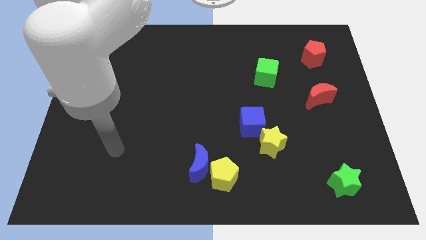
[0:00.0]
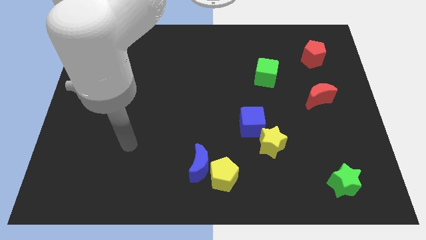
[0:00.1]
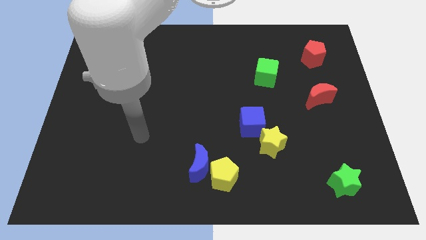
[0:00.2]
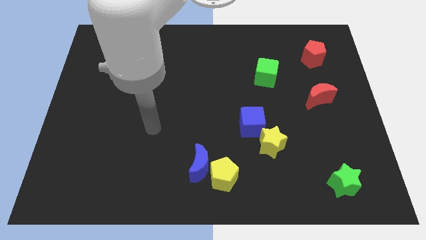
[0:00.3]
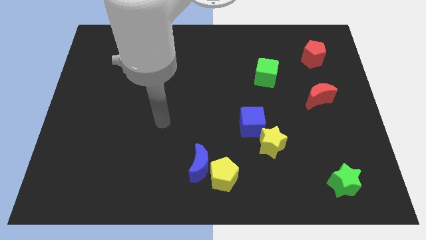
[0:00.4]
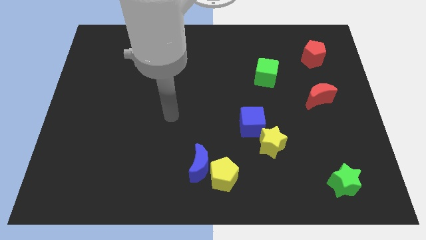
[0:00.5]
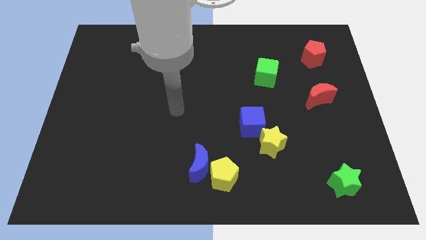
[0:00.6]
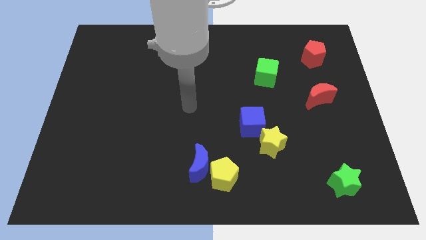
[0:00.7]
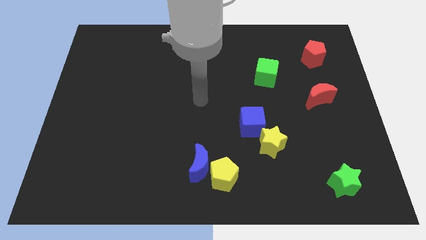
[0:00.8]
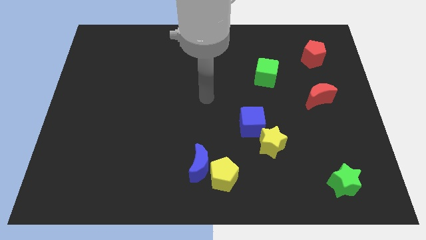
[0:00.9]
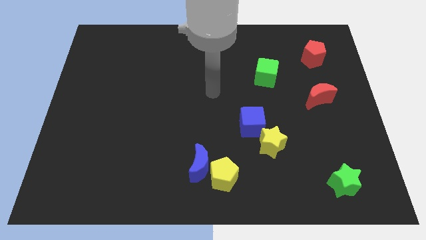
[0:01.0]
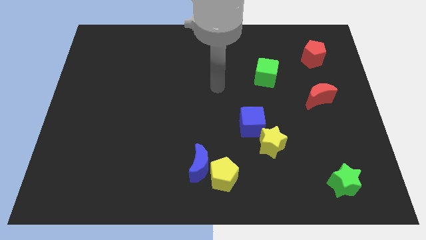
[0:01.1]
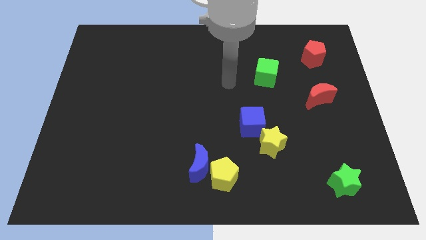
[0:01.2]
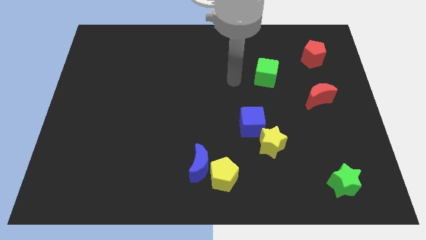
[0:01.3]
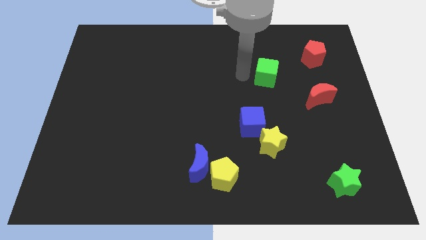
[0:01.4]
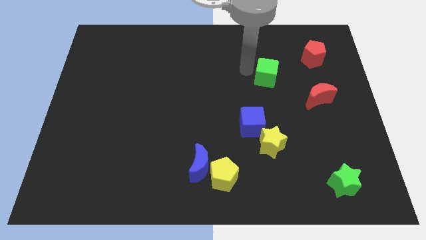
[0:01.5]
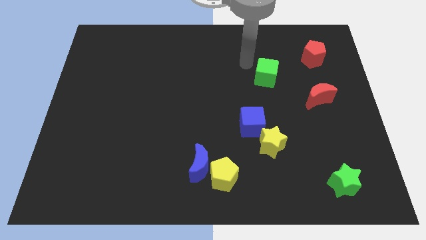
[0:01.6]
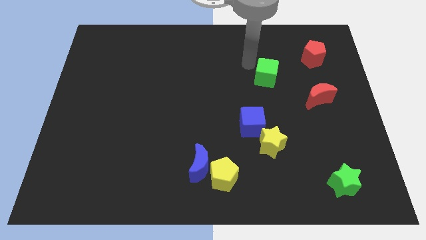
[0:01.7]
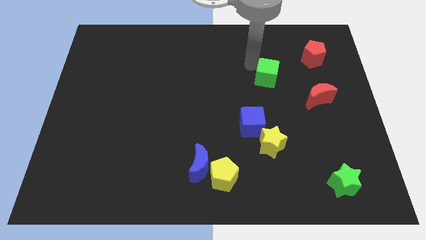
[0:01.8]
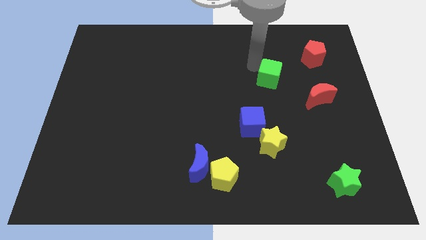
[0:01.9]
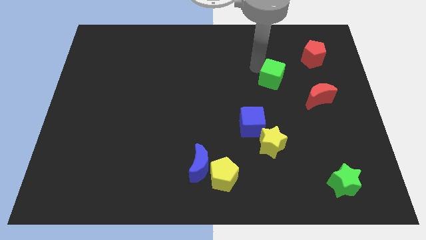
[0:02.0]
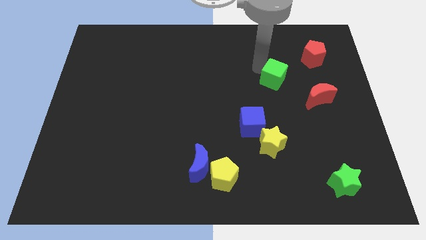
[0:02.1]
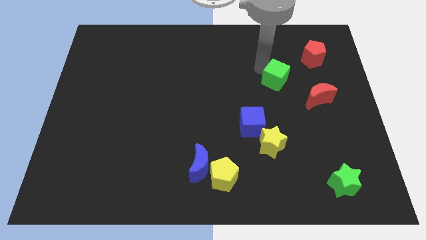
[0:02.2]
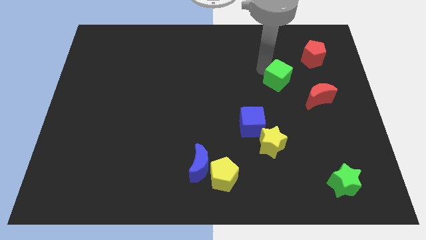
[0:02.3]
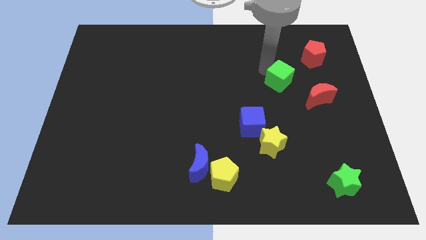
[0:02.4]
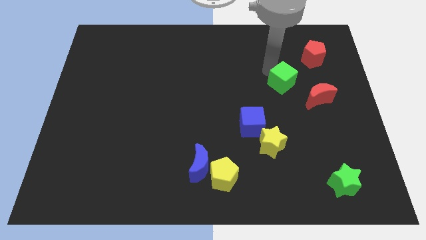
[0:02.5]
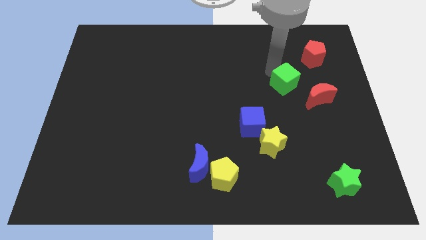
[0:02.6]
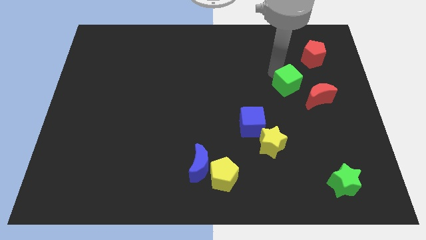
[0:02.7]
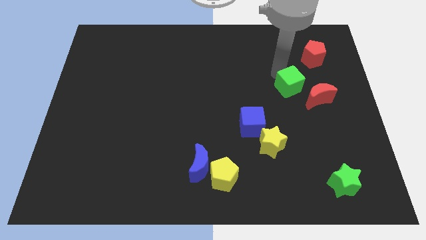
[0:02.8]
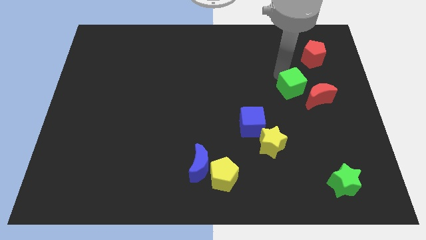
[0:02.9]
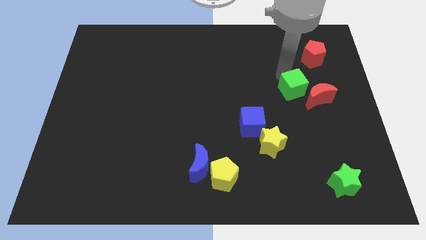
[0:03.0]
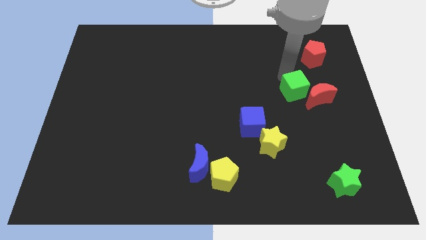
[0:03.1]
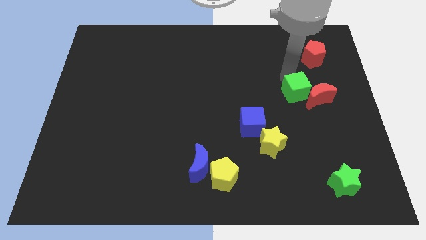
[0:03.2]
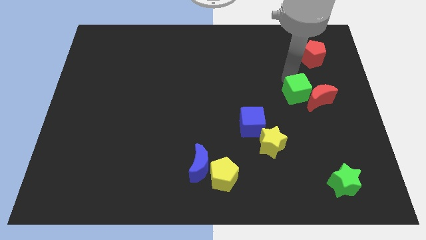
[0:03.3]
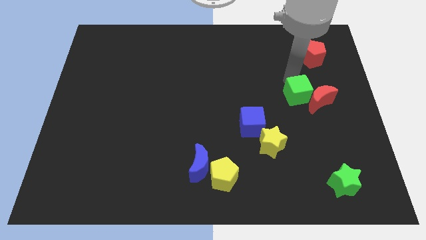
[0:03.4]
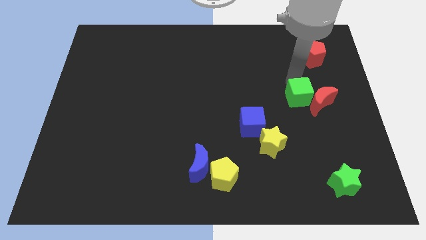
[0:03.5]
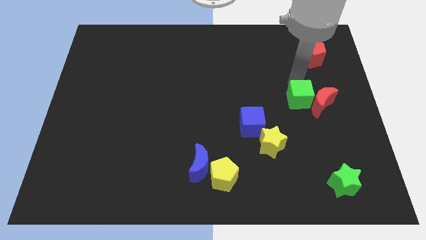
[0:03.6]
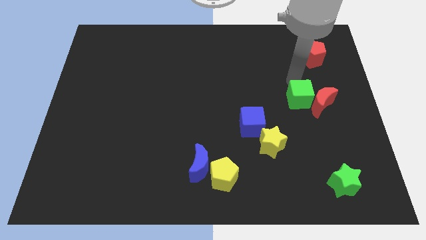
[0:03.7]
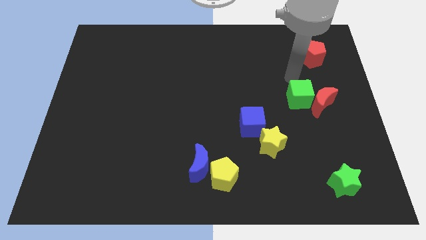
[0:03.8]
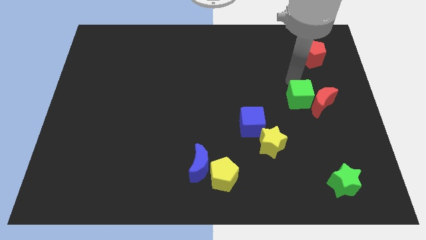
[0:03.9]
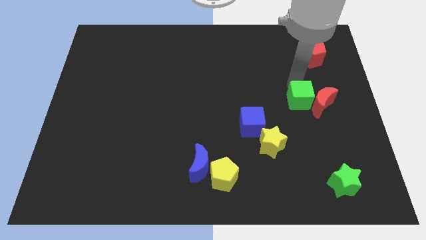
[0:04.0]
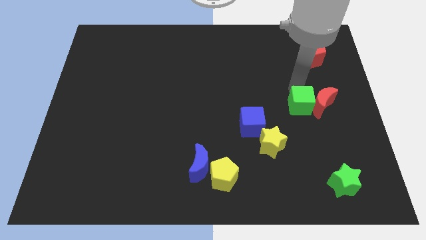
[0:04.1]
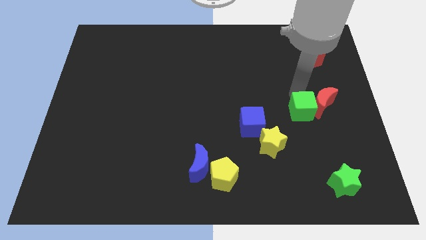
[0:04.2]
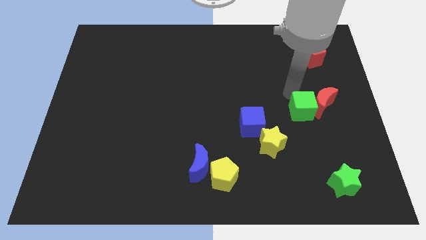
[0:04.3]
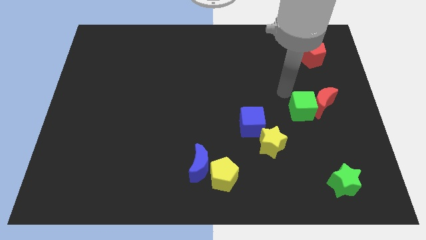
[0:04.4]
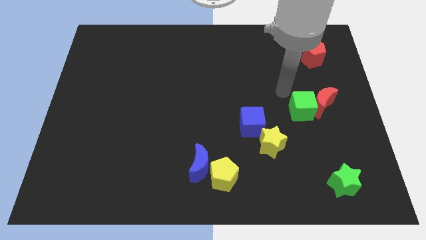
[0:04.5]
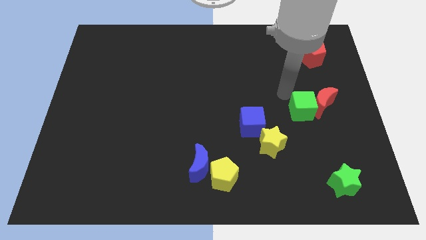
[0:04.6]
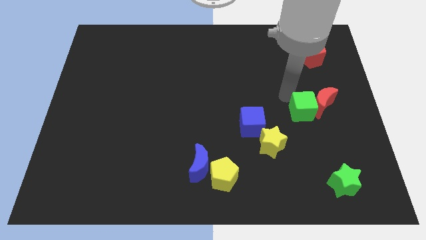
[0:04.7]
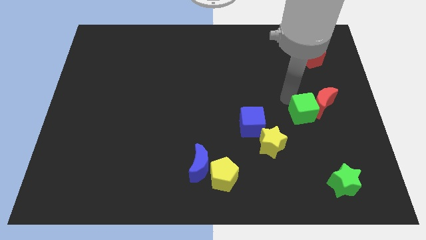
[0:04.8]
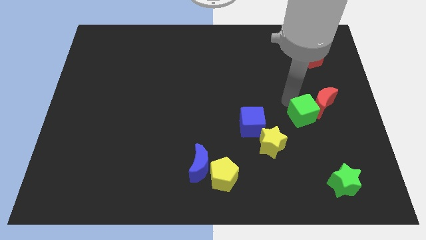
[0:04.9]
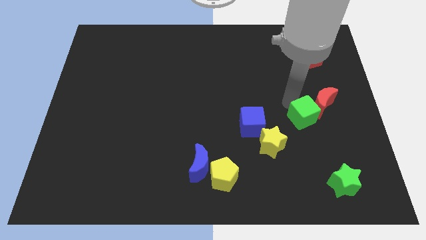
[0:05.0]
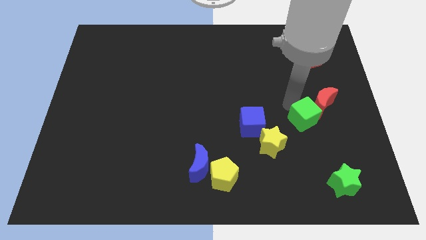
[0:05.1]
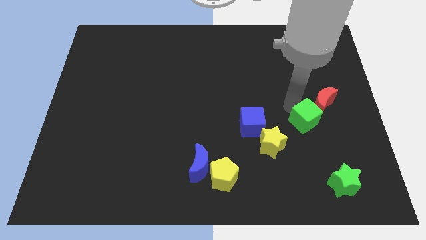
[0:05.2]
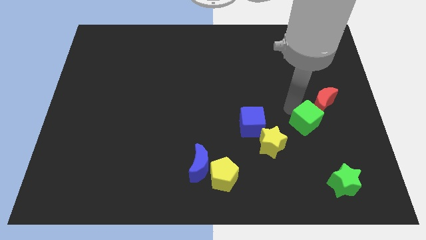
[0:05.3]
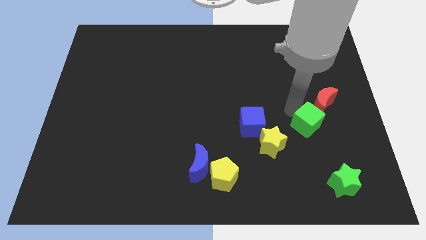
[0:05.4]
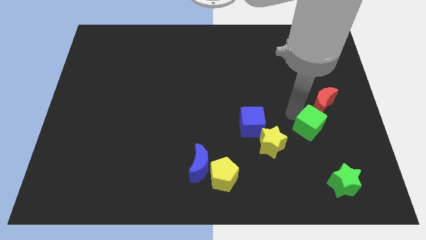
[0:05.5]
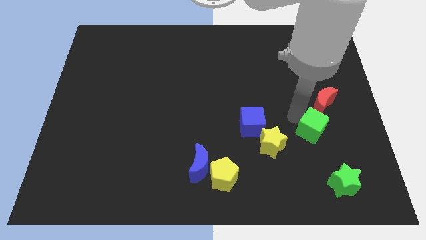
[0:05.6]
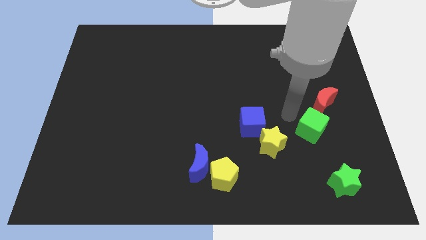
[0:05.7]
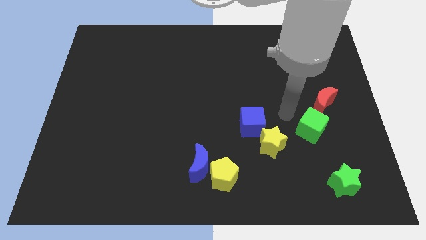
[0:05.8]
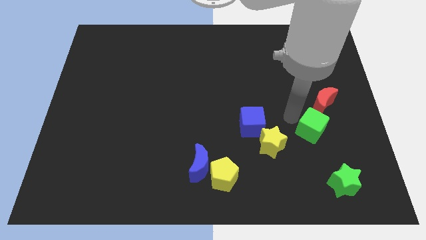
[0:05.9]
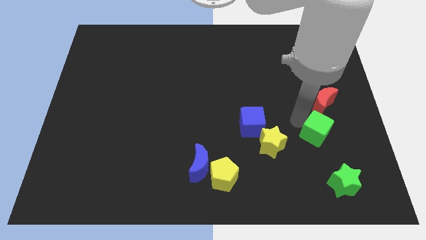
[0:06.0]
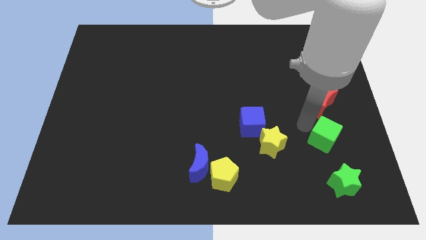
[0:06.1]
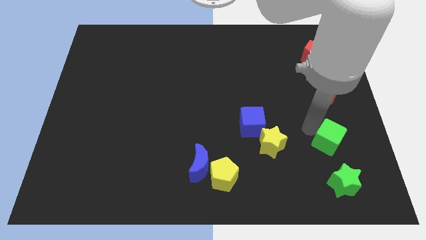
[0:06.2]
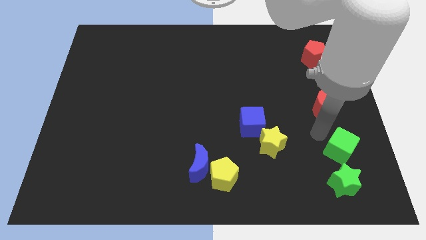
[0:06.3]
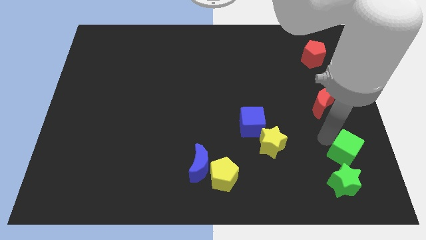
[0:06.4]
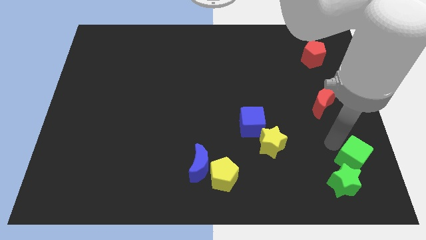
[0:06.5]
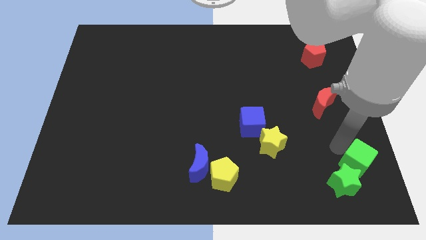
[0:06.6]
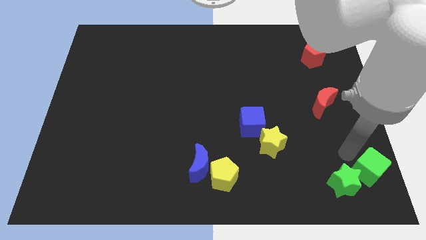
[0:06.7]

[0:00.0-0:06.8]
slide the green cube to the lower right corner

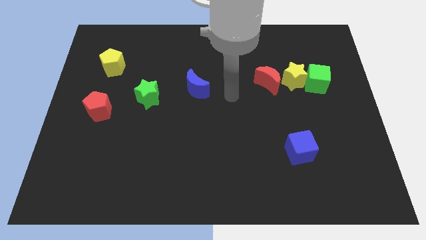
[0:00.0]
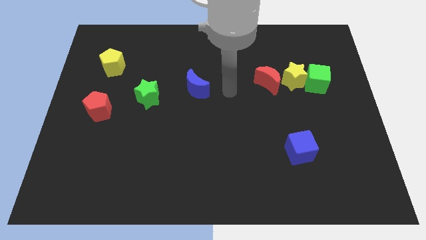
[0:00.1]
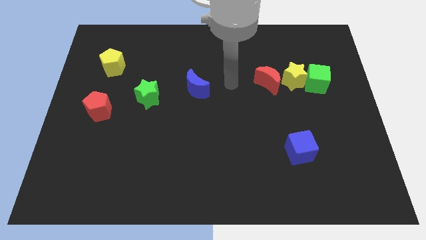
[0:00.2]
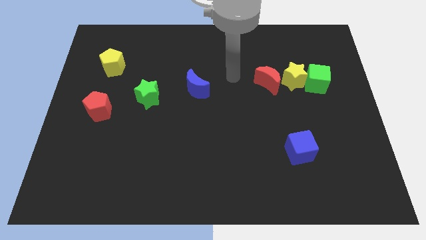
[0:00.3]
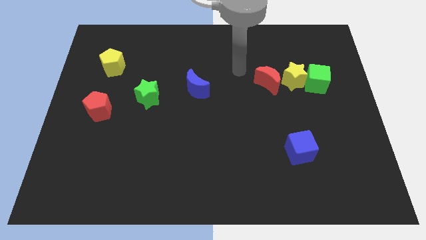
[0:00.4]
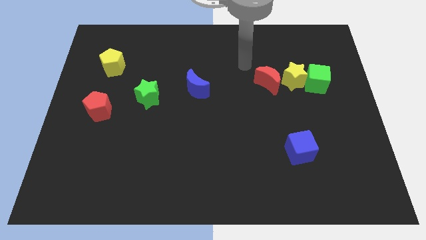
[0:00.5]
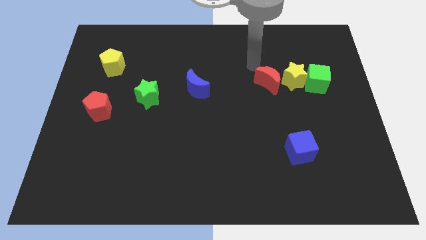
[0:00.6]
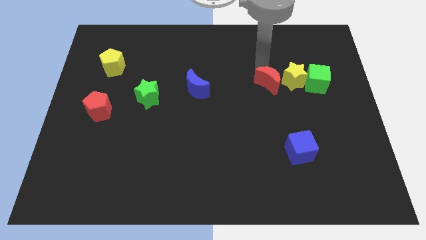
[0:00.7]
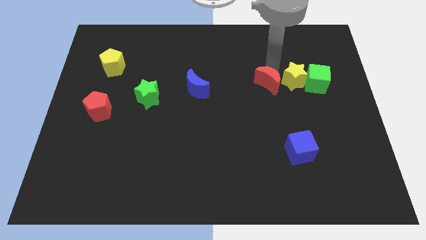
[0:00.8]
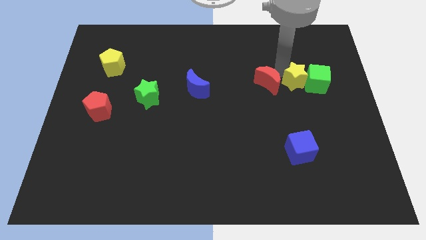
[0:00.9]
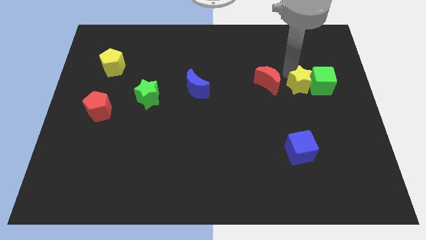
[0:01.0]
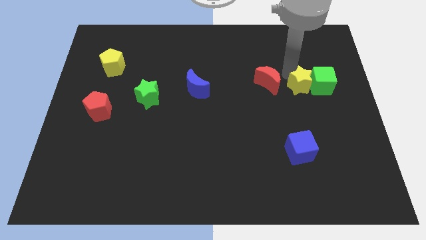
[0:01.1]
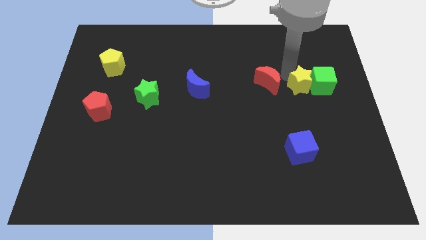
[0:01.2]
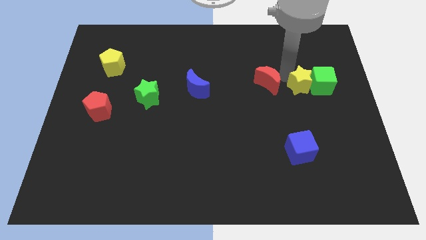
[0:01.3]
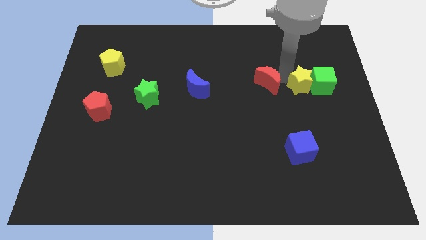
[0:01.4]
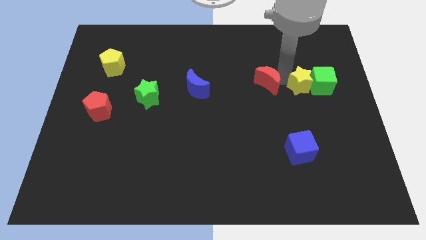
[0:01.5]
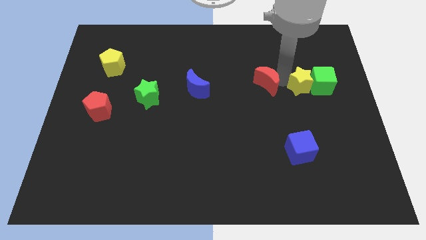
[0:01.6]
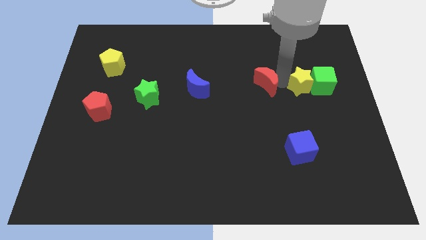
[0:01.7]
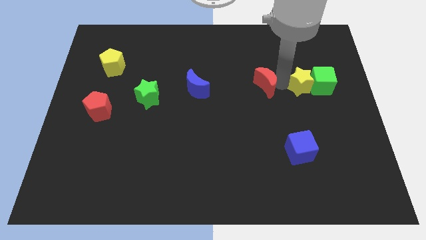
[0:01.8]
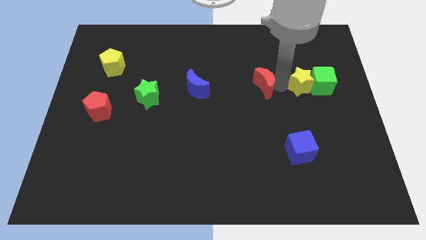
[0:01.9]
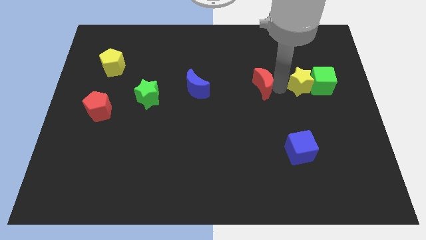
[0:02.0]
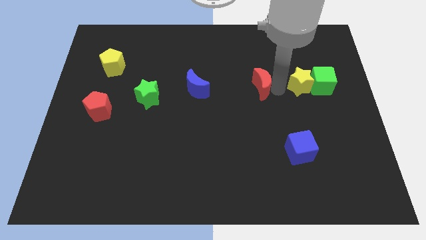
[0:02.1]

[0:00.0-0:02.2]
move the red moon to the center
